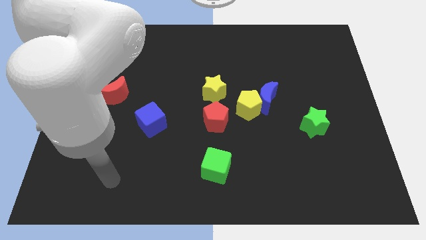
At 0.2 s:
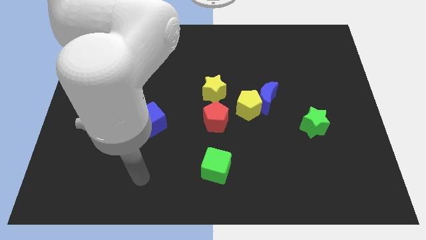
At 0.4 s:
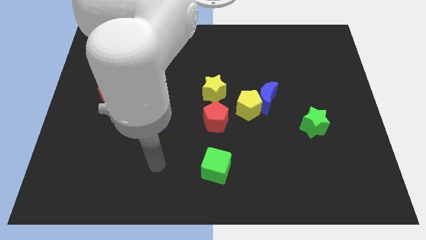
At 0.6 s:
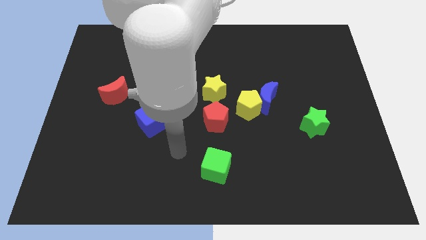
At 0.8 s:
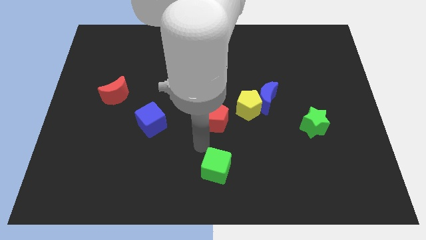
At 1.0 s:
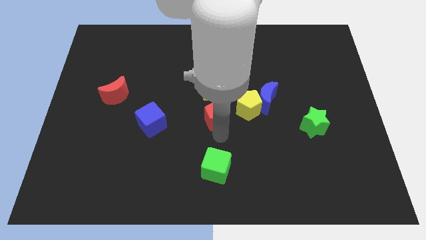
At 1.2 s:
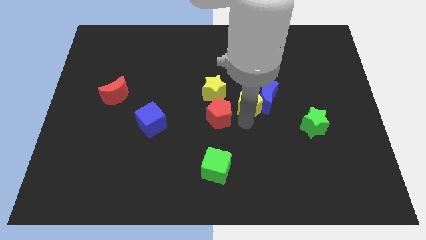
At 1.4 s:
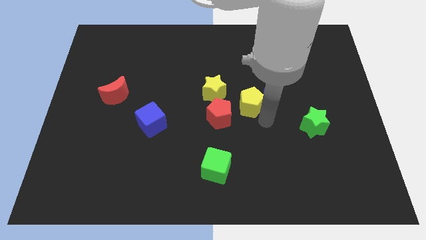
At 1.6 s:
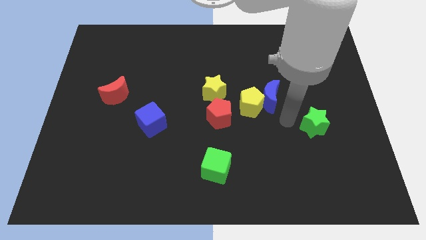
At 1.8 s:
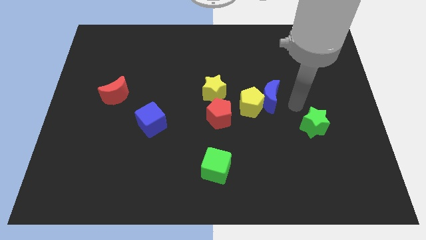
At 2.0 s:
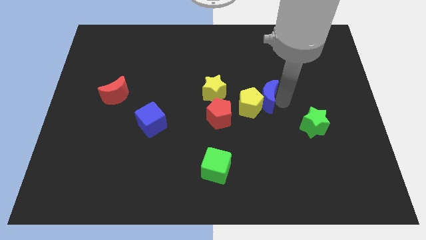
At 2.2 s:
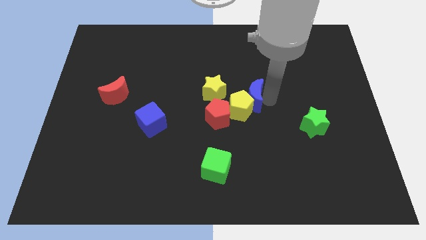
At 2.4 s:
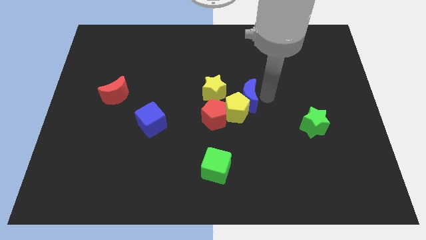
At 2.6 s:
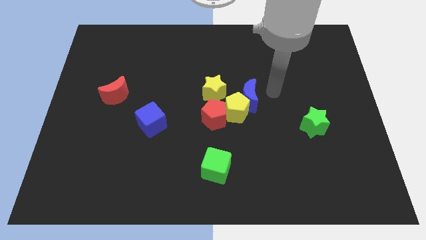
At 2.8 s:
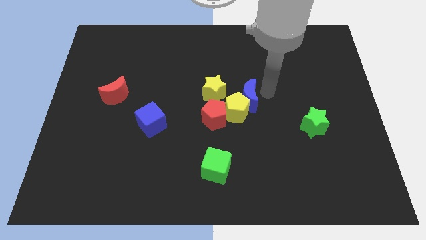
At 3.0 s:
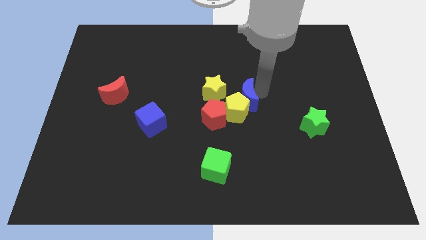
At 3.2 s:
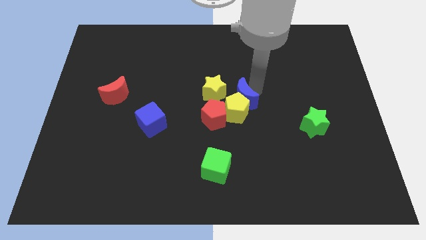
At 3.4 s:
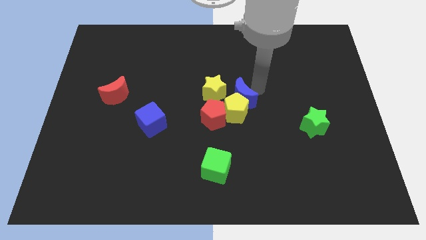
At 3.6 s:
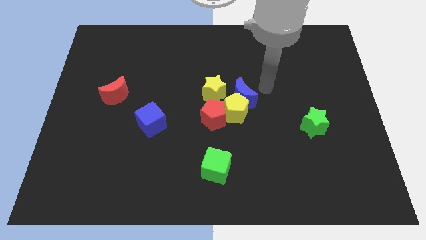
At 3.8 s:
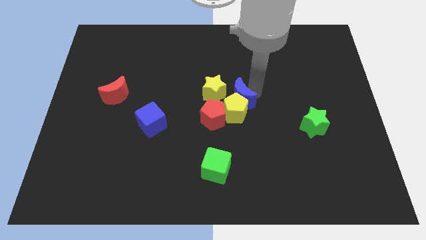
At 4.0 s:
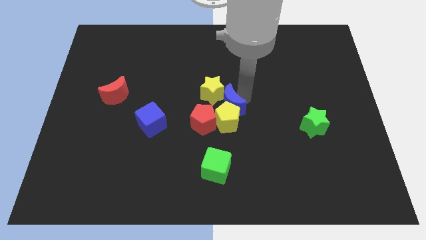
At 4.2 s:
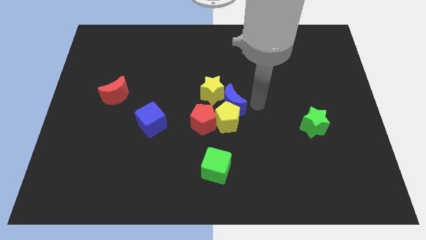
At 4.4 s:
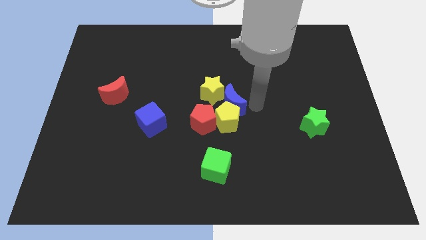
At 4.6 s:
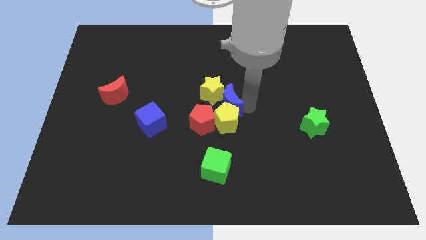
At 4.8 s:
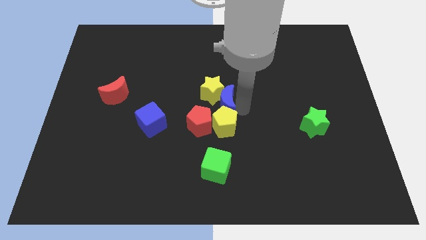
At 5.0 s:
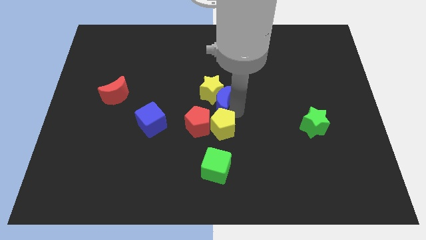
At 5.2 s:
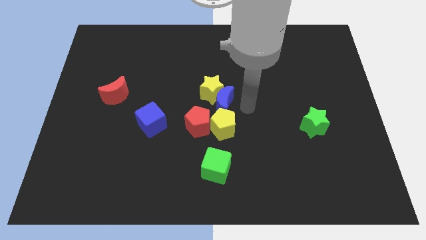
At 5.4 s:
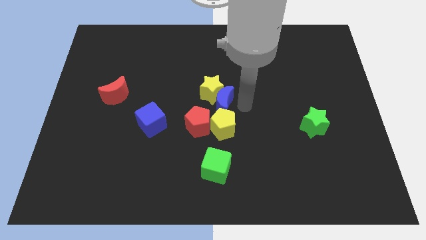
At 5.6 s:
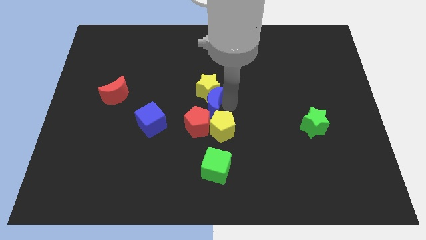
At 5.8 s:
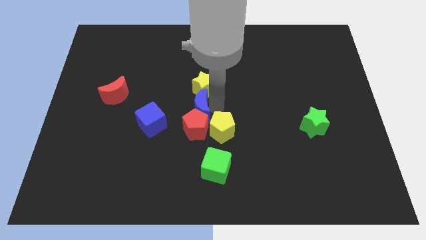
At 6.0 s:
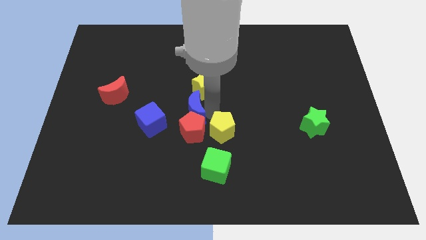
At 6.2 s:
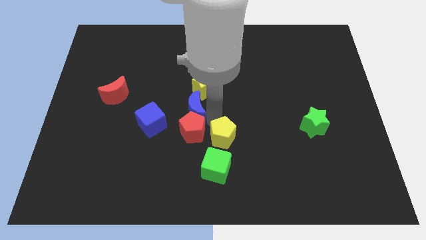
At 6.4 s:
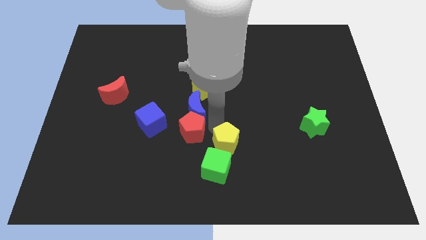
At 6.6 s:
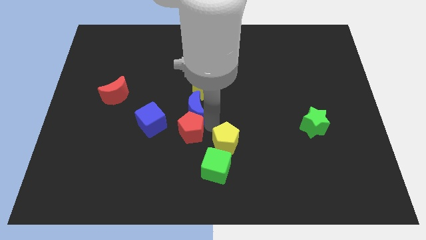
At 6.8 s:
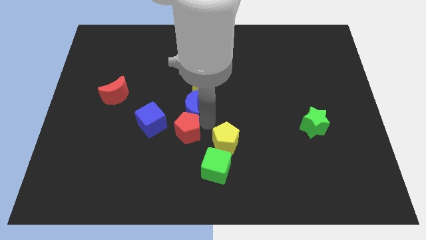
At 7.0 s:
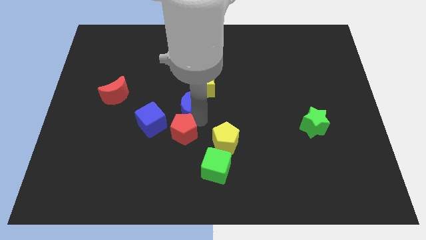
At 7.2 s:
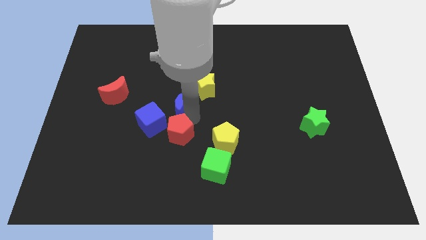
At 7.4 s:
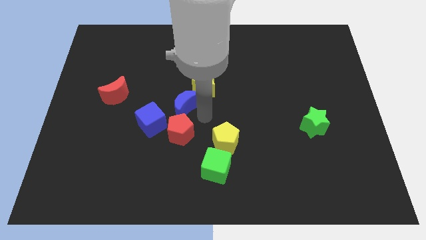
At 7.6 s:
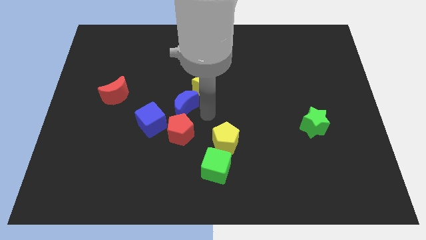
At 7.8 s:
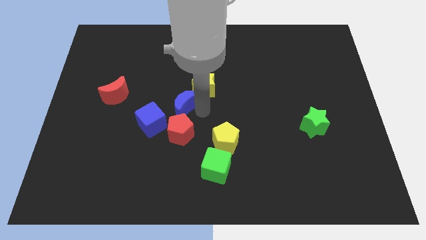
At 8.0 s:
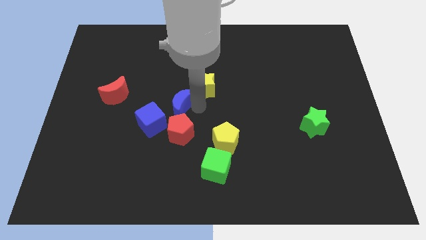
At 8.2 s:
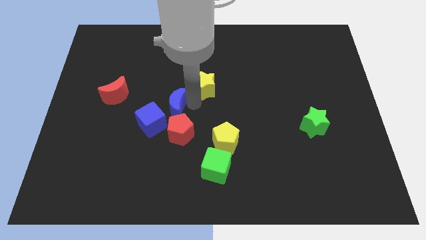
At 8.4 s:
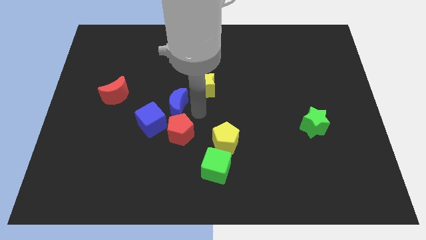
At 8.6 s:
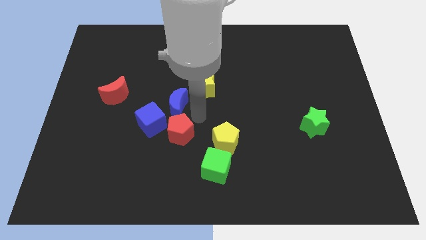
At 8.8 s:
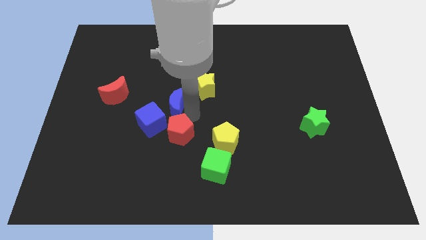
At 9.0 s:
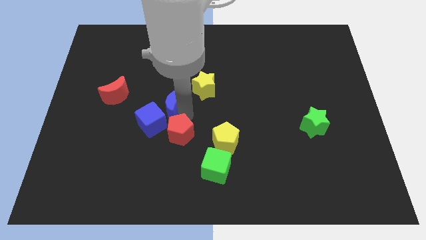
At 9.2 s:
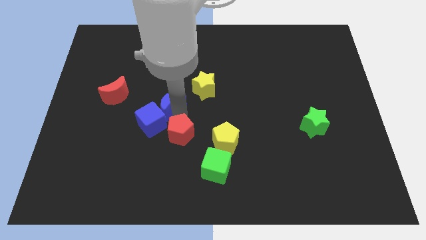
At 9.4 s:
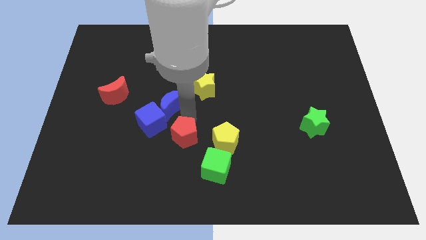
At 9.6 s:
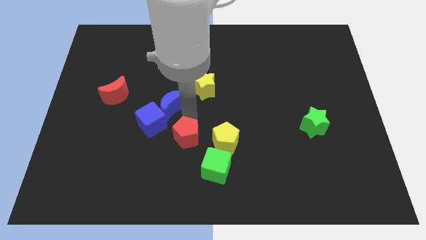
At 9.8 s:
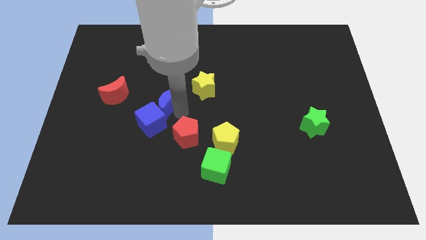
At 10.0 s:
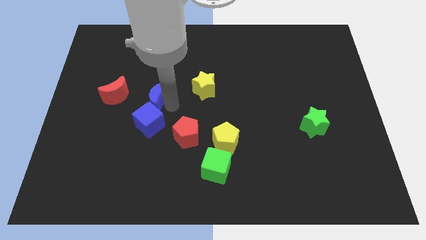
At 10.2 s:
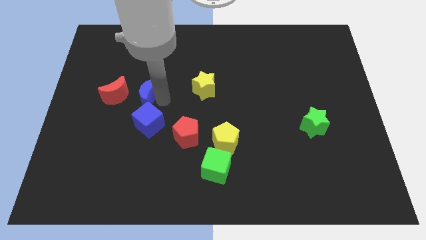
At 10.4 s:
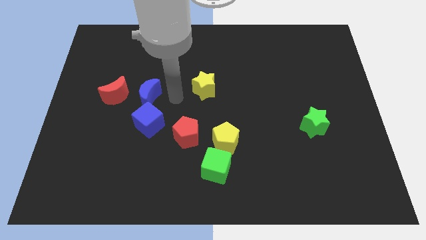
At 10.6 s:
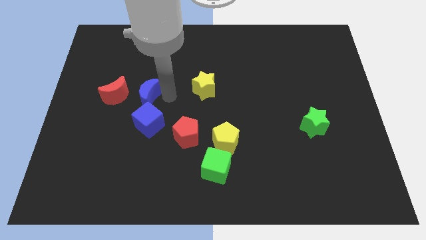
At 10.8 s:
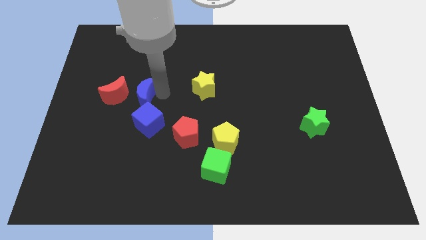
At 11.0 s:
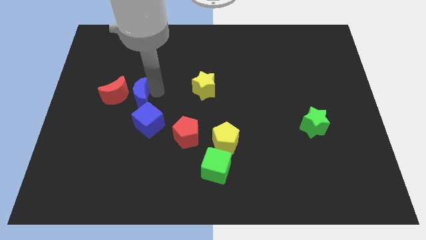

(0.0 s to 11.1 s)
put the blue moon to the red moon

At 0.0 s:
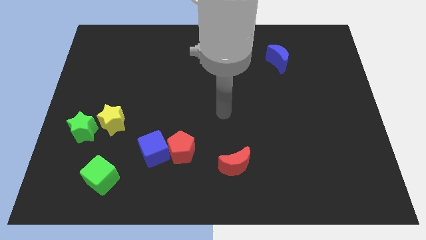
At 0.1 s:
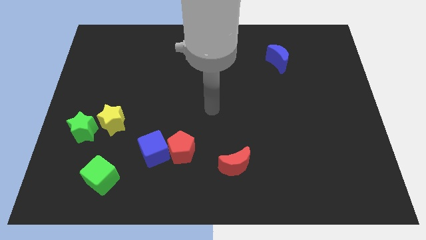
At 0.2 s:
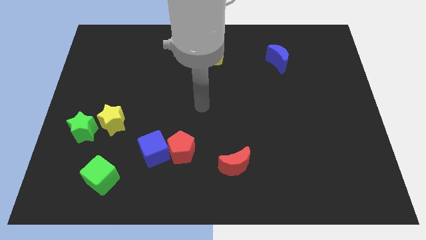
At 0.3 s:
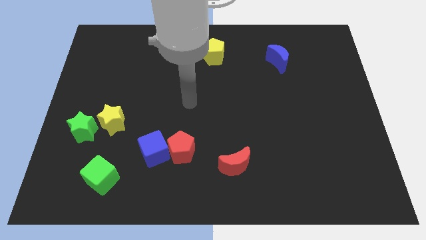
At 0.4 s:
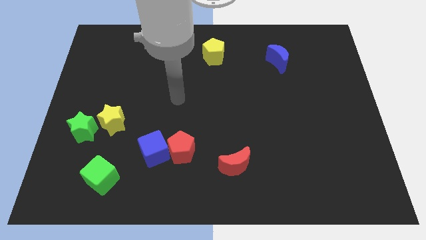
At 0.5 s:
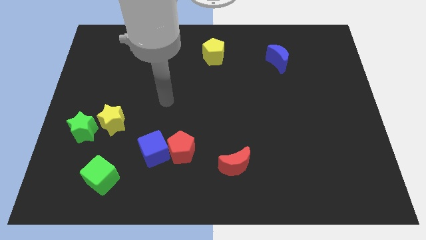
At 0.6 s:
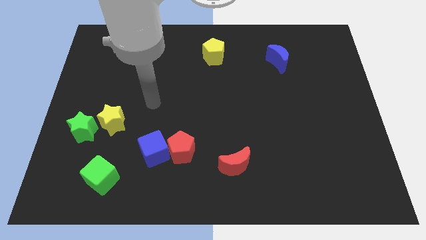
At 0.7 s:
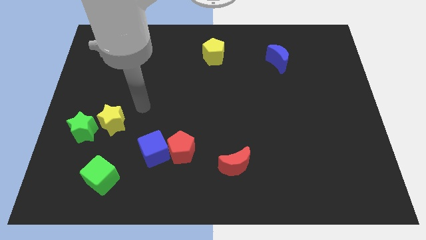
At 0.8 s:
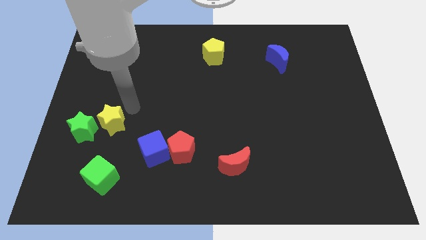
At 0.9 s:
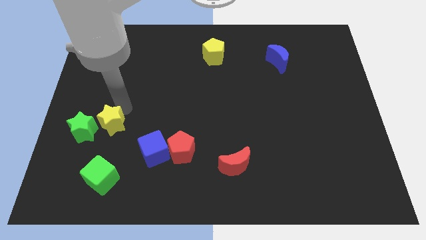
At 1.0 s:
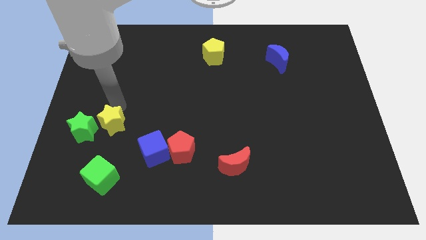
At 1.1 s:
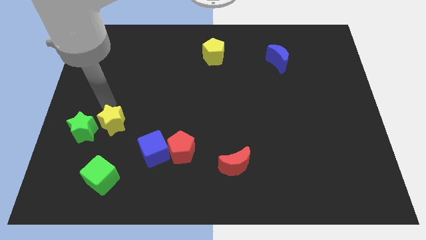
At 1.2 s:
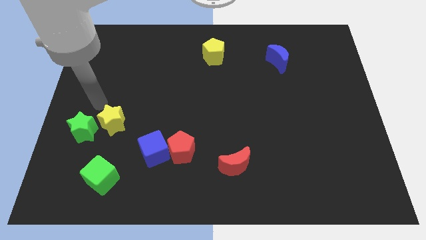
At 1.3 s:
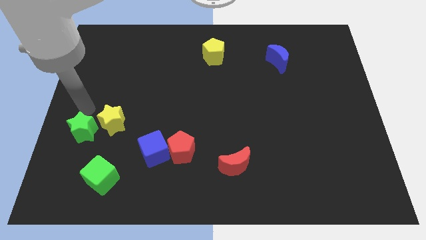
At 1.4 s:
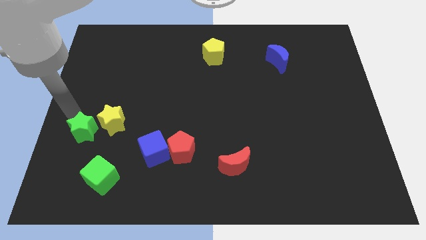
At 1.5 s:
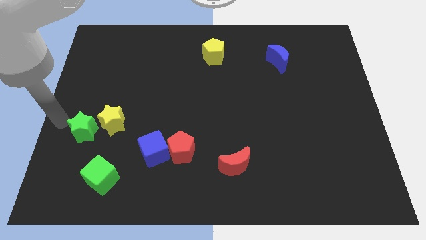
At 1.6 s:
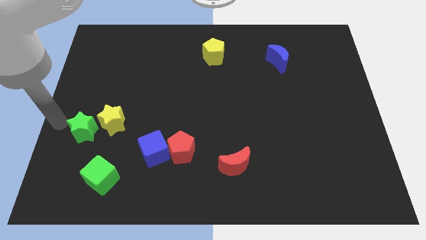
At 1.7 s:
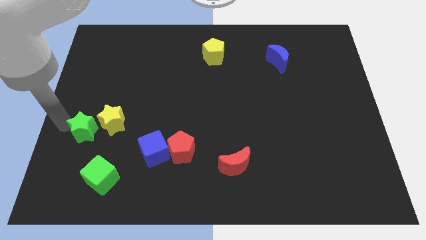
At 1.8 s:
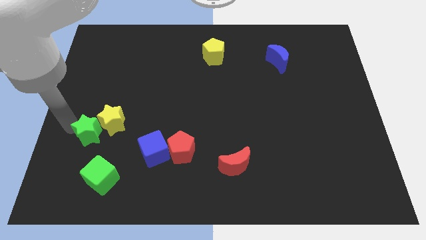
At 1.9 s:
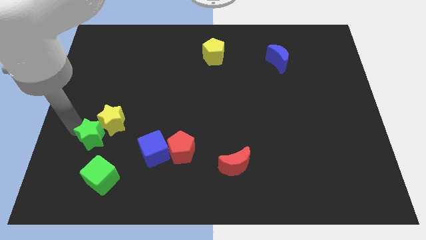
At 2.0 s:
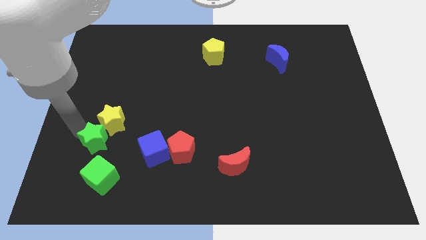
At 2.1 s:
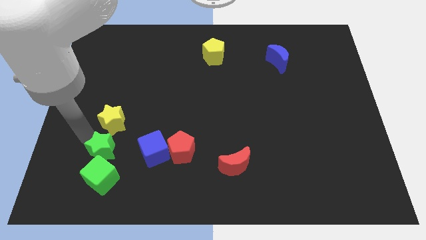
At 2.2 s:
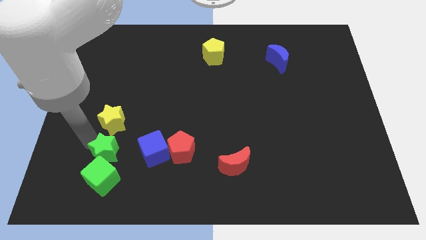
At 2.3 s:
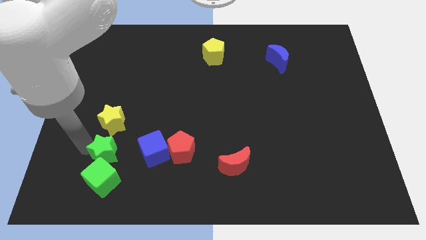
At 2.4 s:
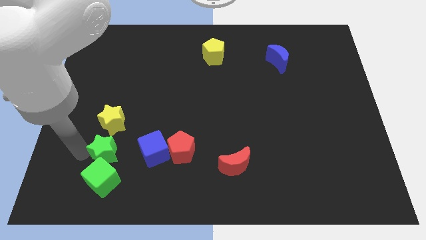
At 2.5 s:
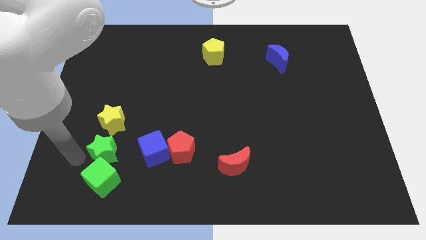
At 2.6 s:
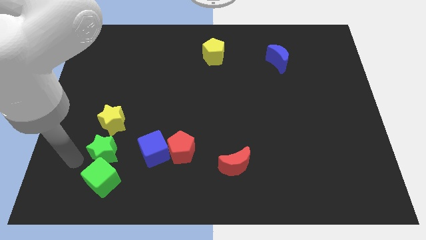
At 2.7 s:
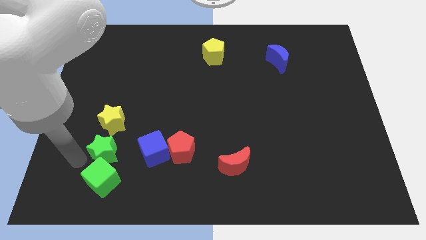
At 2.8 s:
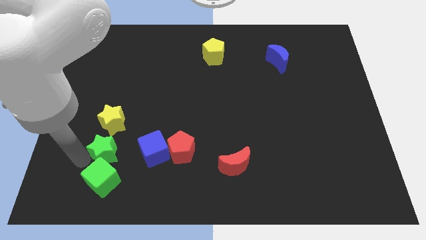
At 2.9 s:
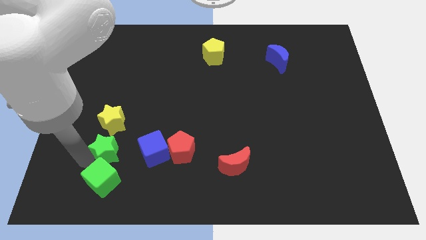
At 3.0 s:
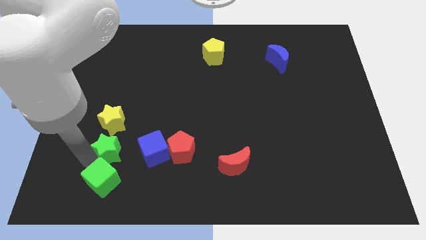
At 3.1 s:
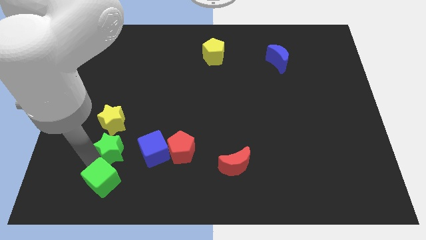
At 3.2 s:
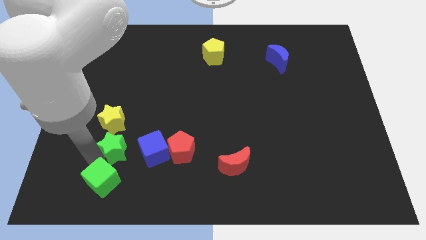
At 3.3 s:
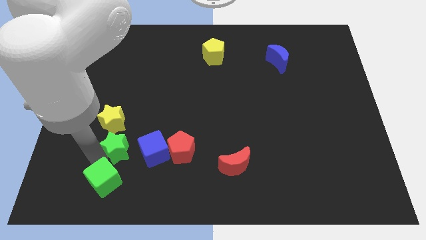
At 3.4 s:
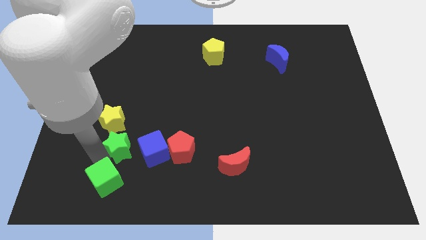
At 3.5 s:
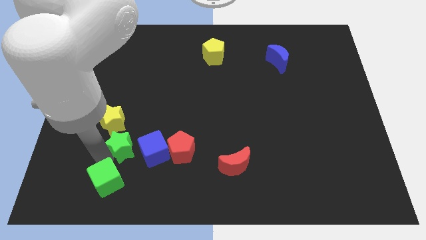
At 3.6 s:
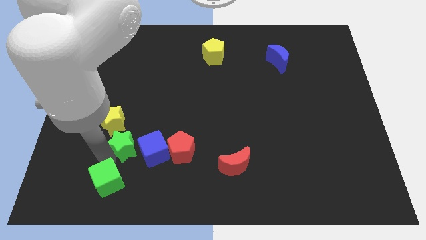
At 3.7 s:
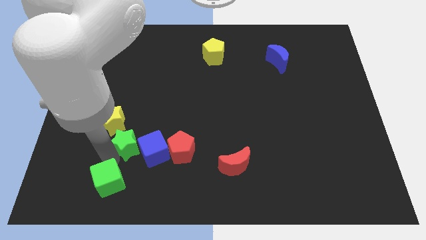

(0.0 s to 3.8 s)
slide the green star to the blue cube
